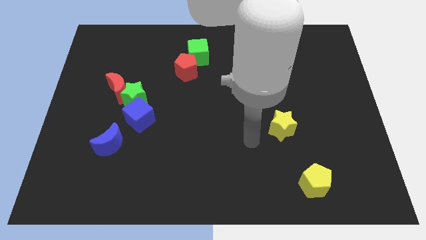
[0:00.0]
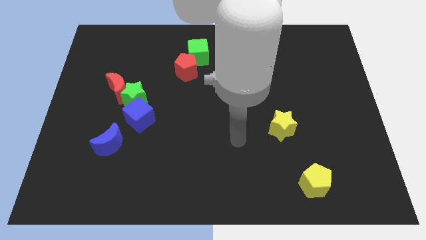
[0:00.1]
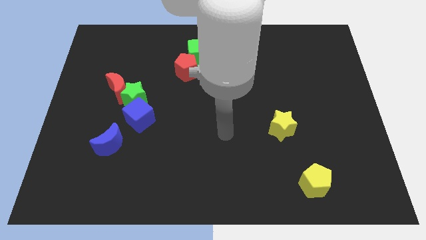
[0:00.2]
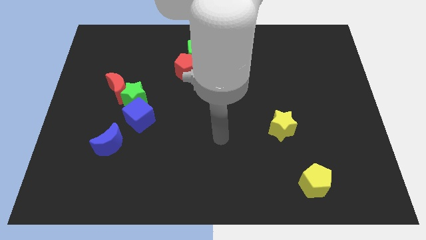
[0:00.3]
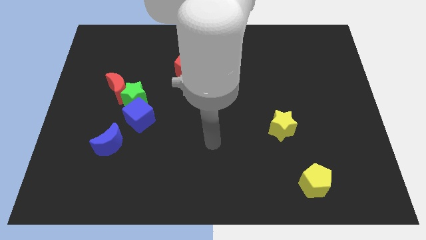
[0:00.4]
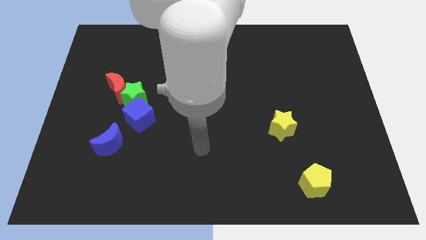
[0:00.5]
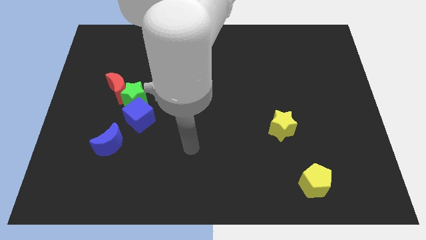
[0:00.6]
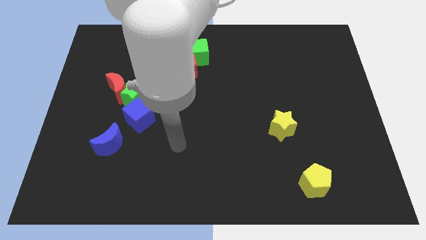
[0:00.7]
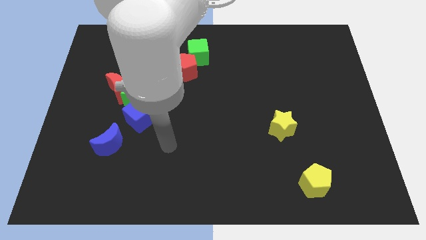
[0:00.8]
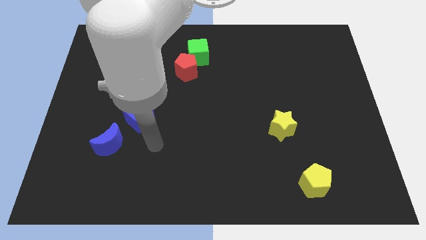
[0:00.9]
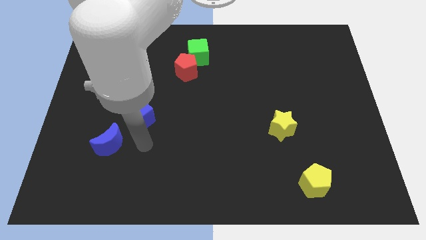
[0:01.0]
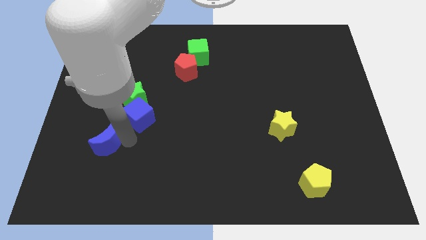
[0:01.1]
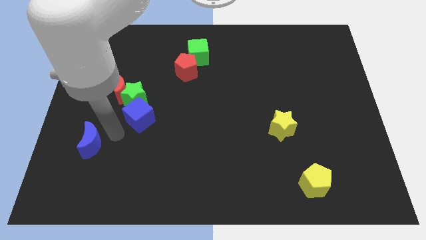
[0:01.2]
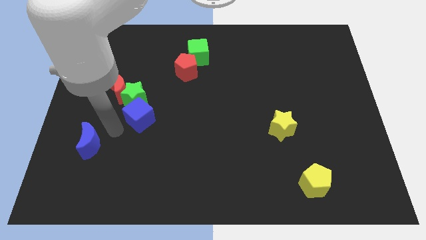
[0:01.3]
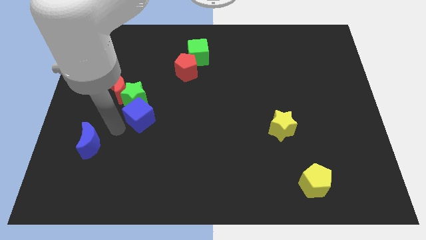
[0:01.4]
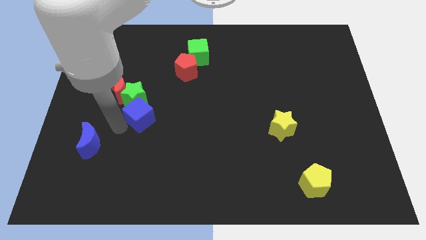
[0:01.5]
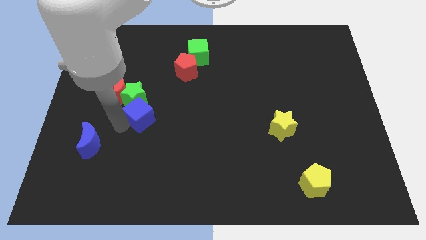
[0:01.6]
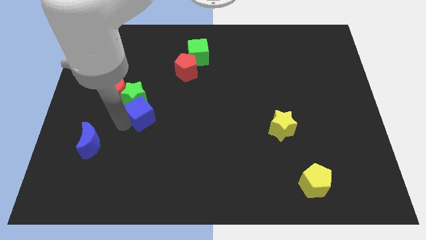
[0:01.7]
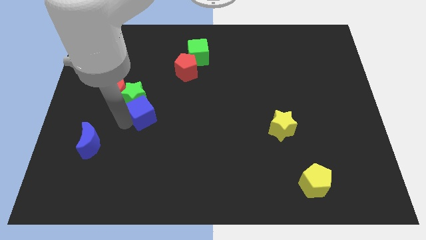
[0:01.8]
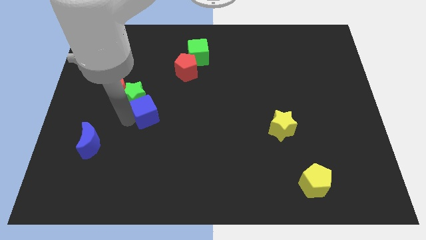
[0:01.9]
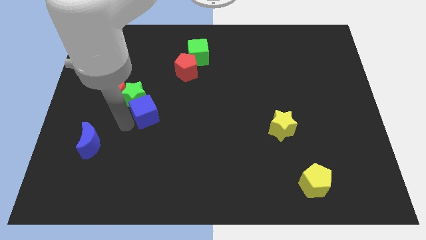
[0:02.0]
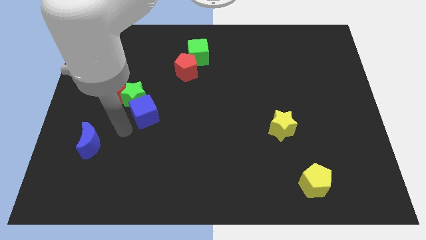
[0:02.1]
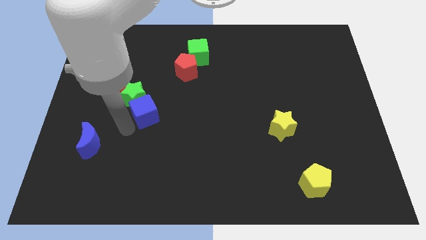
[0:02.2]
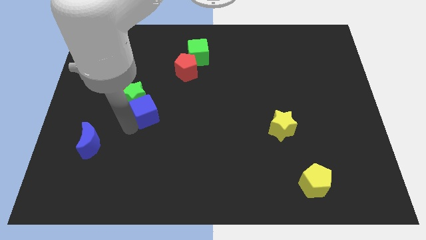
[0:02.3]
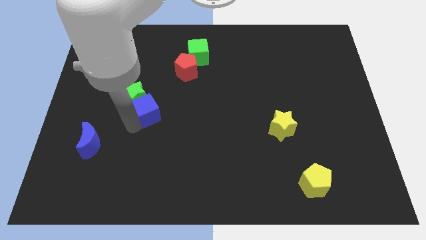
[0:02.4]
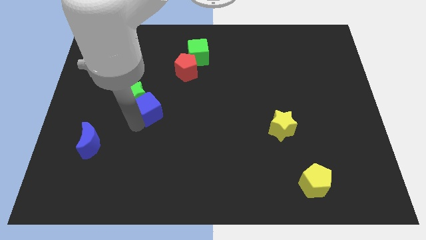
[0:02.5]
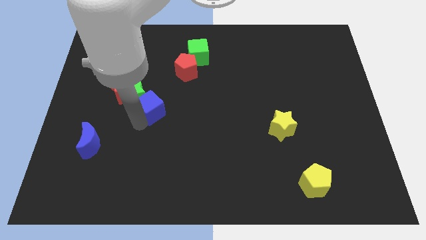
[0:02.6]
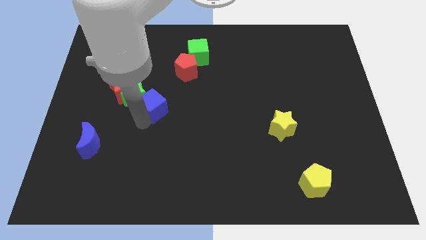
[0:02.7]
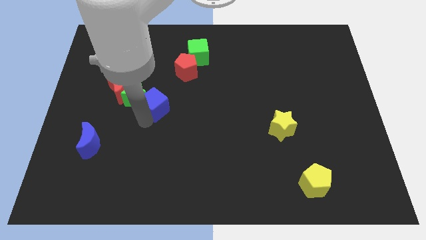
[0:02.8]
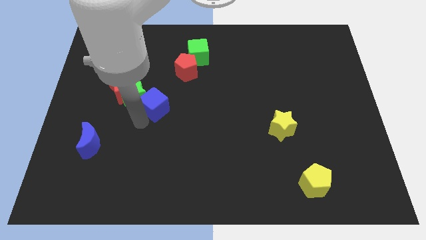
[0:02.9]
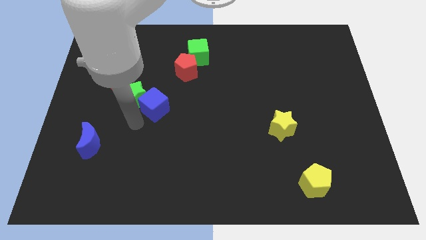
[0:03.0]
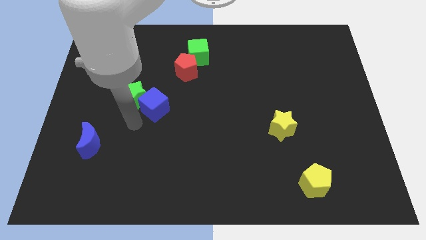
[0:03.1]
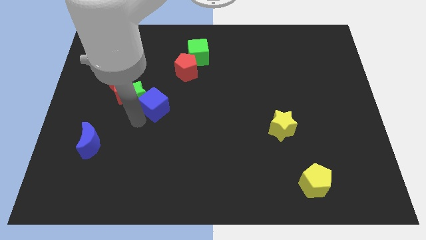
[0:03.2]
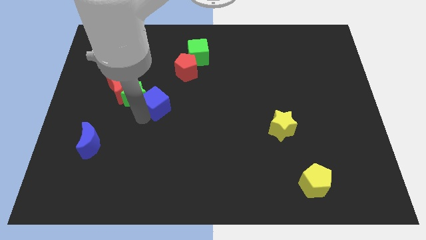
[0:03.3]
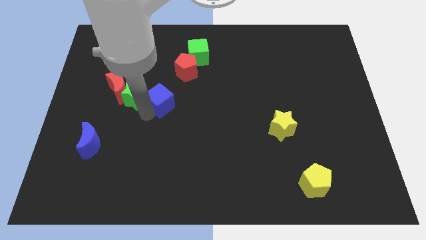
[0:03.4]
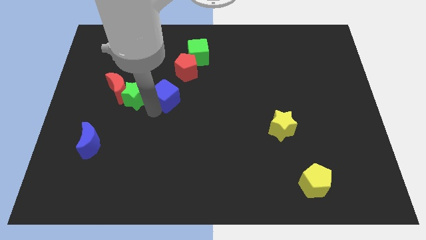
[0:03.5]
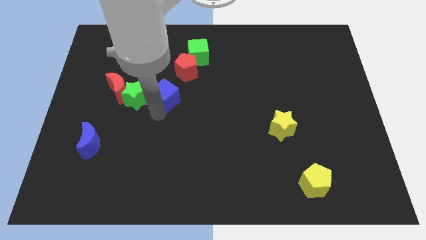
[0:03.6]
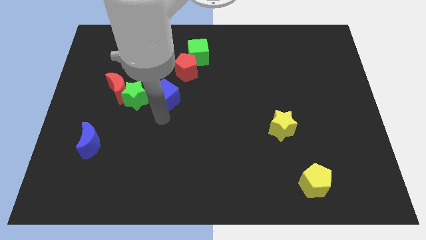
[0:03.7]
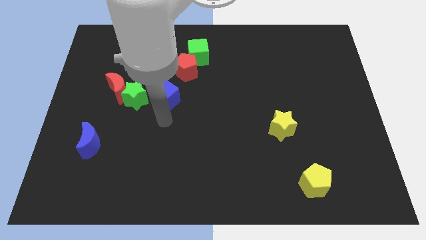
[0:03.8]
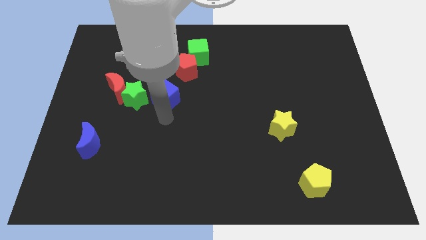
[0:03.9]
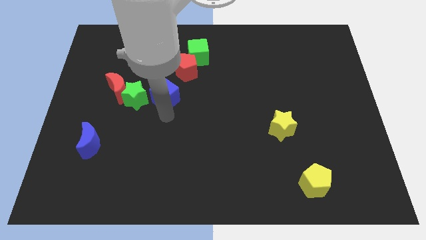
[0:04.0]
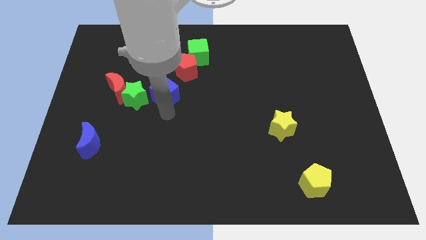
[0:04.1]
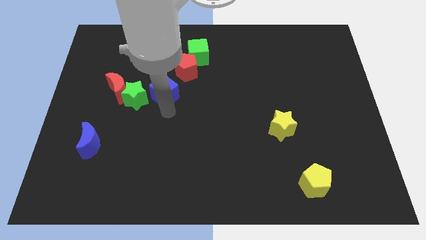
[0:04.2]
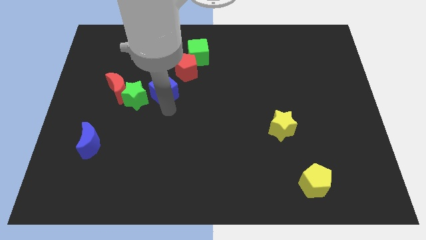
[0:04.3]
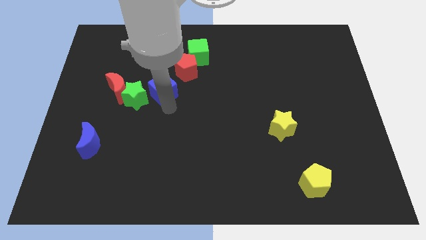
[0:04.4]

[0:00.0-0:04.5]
slide the blue cube upwards a little

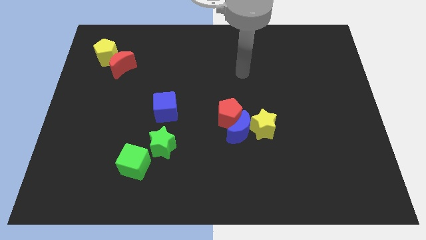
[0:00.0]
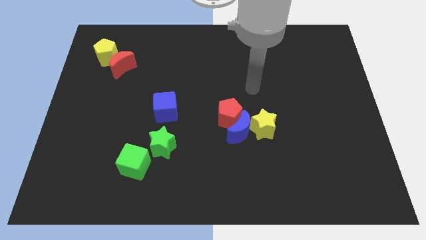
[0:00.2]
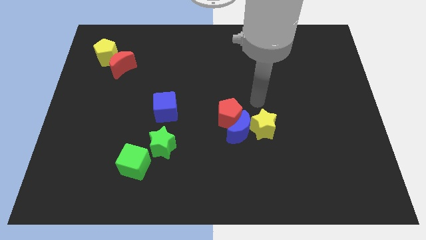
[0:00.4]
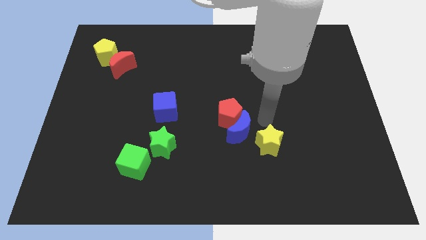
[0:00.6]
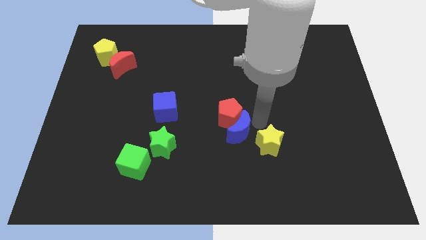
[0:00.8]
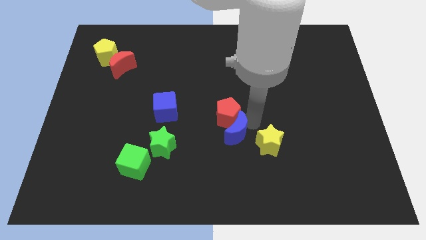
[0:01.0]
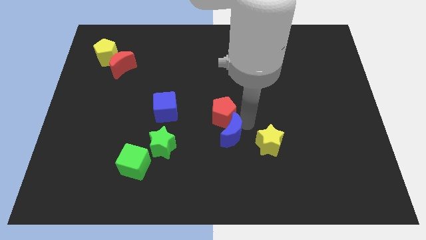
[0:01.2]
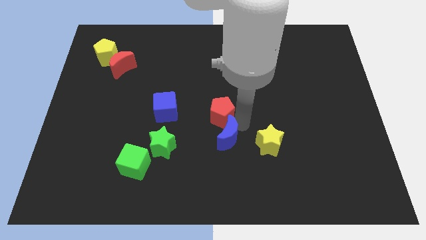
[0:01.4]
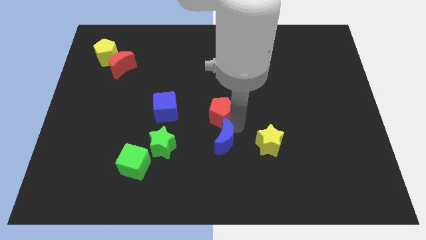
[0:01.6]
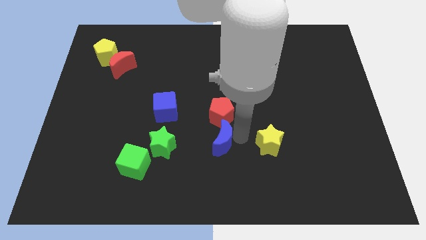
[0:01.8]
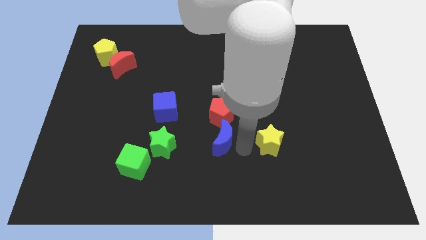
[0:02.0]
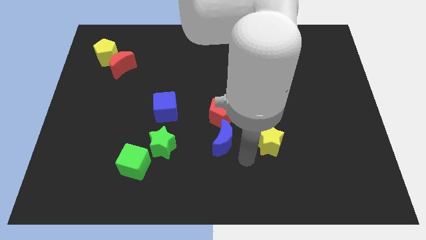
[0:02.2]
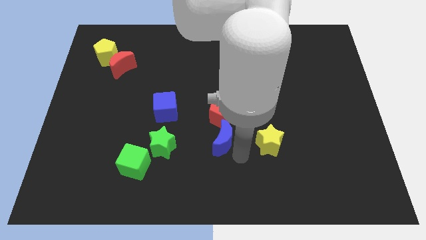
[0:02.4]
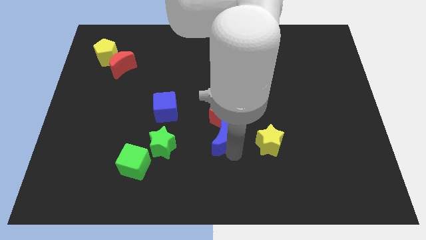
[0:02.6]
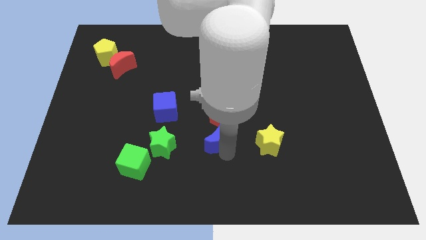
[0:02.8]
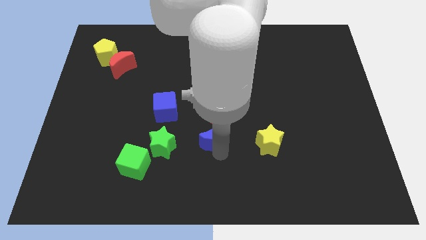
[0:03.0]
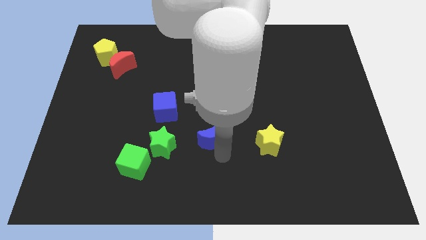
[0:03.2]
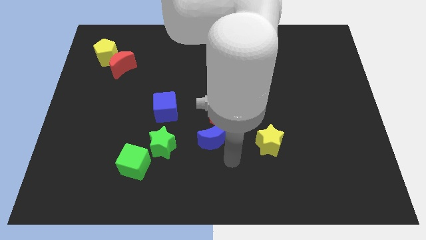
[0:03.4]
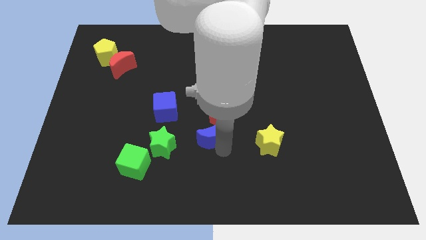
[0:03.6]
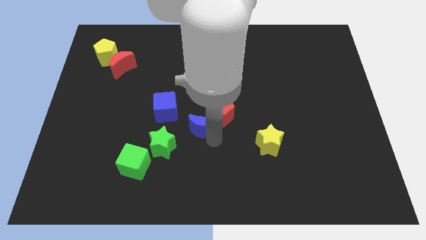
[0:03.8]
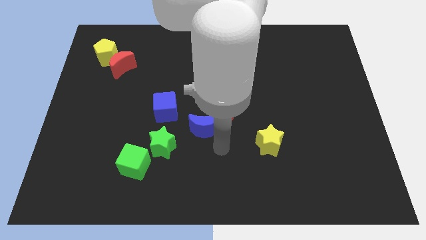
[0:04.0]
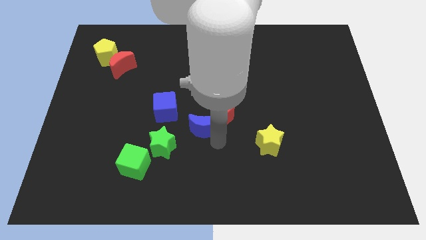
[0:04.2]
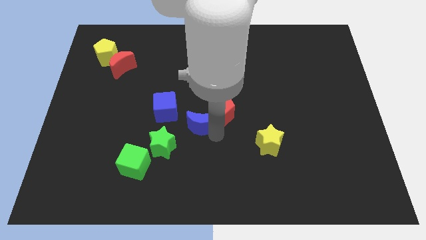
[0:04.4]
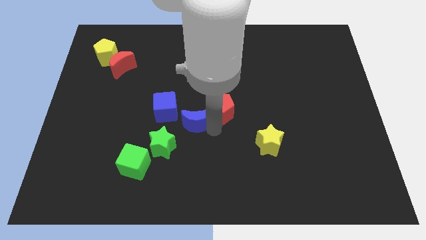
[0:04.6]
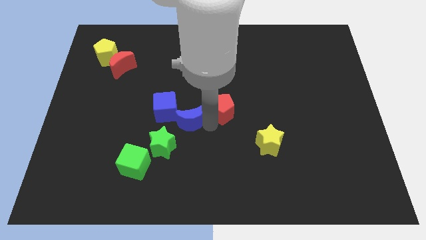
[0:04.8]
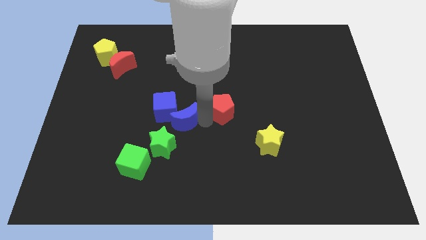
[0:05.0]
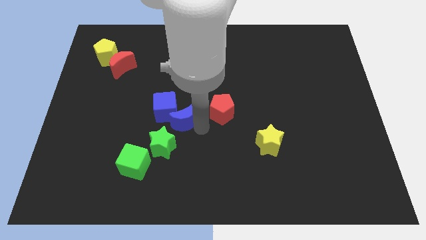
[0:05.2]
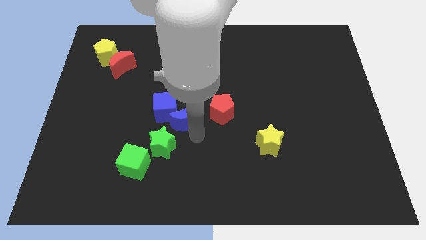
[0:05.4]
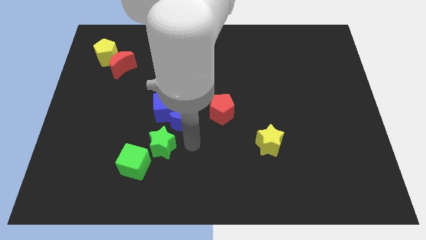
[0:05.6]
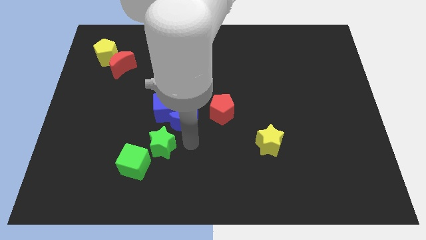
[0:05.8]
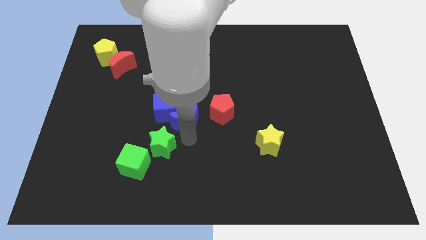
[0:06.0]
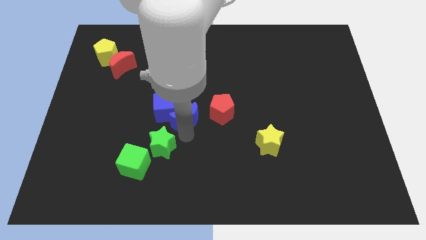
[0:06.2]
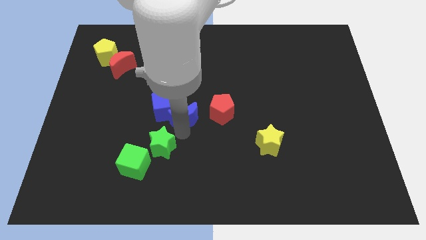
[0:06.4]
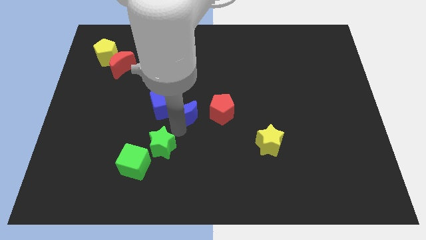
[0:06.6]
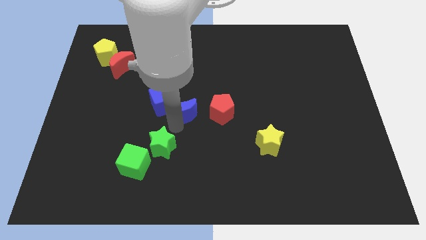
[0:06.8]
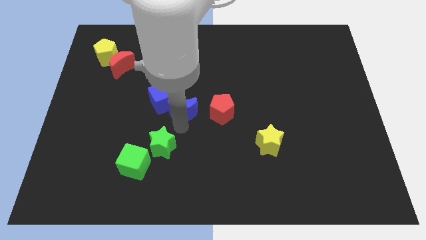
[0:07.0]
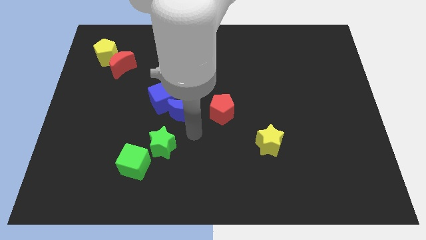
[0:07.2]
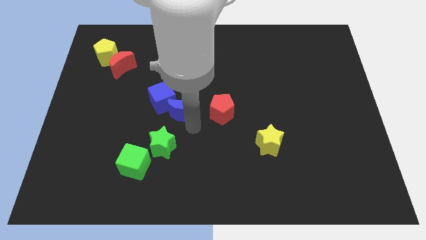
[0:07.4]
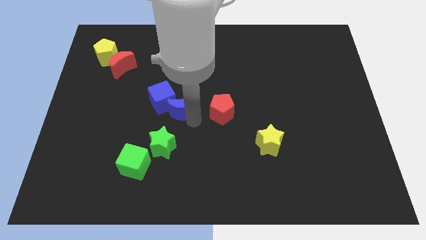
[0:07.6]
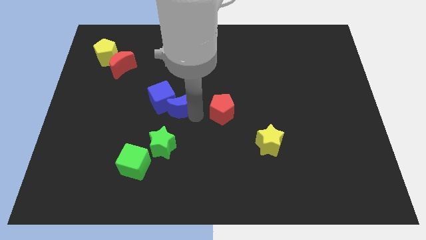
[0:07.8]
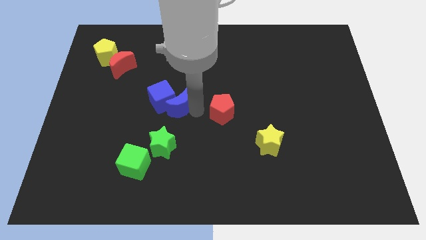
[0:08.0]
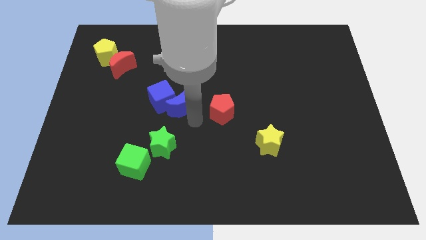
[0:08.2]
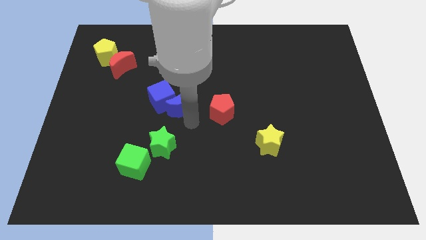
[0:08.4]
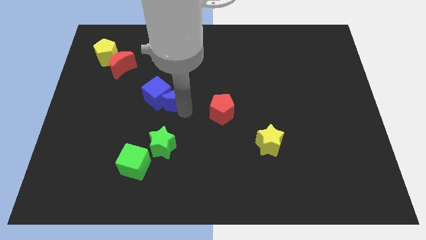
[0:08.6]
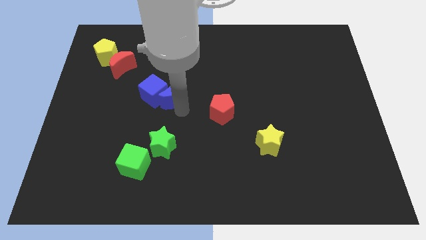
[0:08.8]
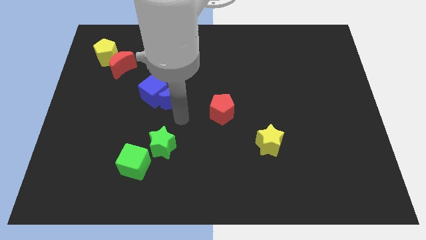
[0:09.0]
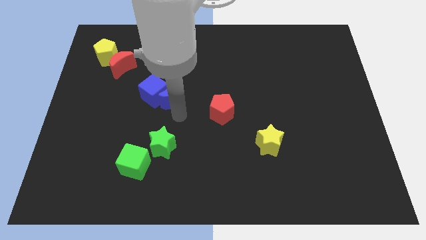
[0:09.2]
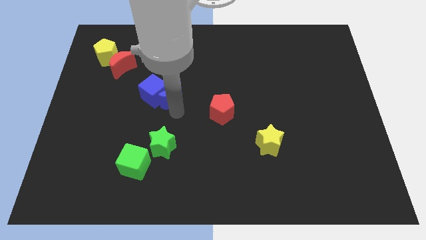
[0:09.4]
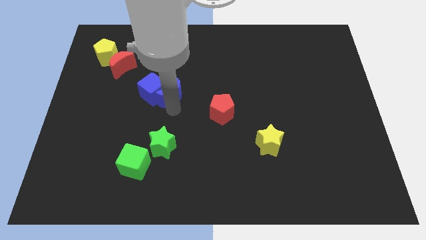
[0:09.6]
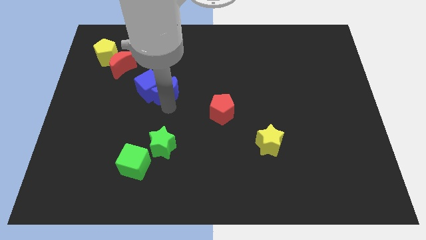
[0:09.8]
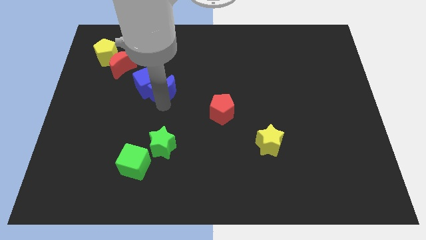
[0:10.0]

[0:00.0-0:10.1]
slide the blue moon up and left diagonally
